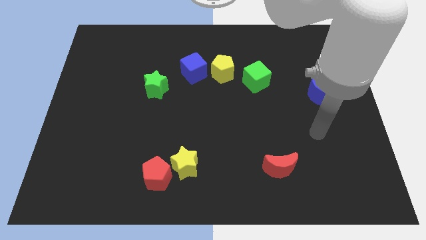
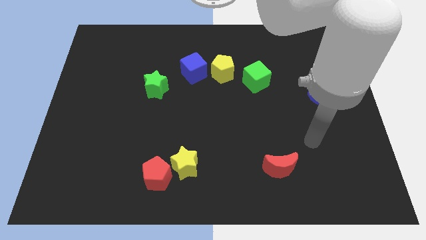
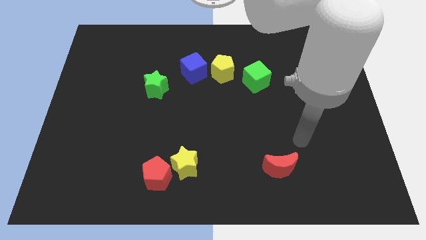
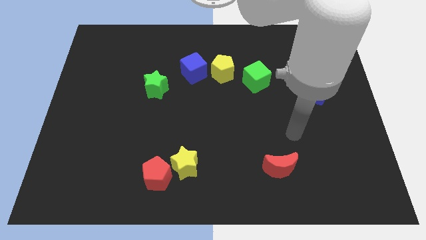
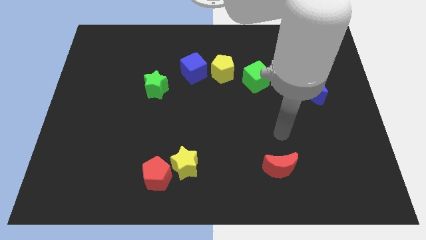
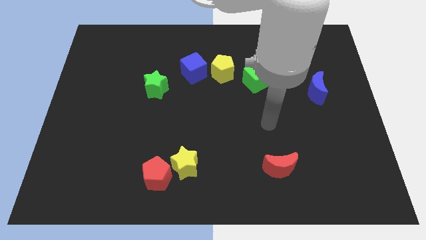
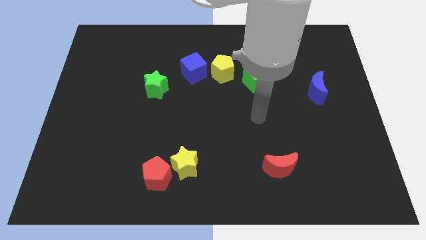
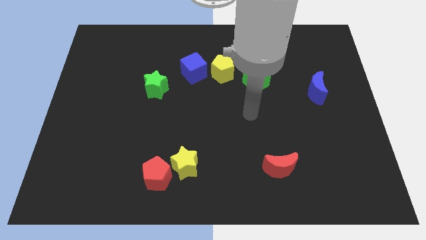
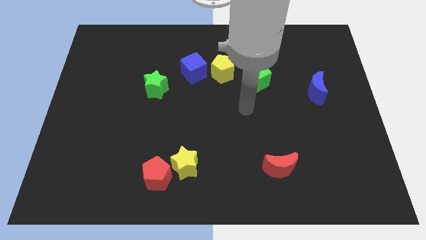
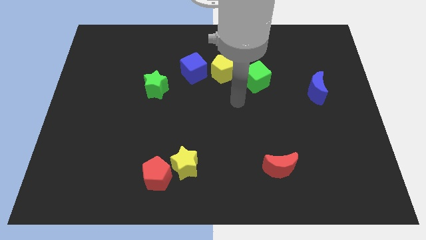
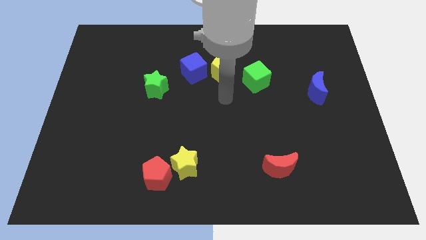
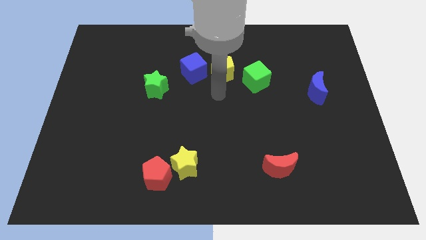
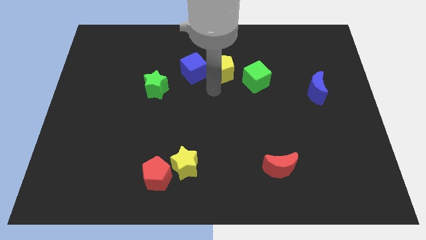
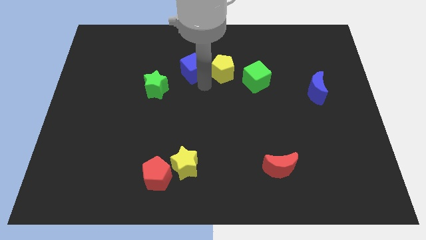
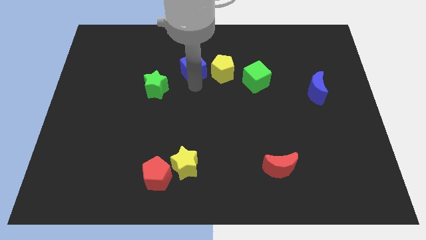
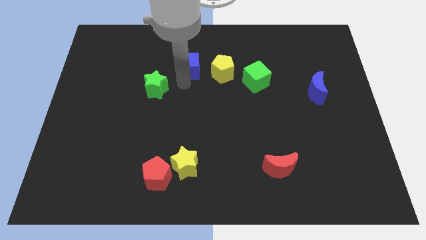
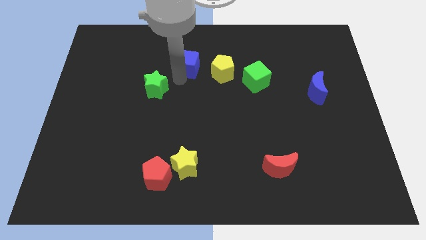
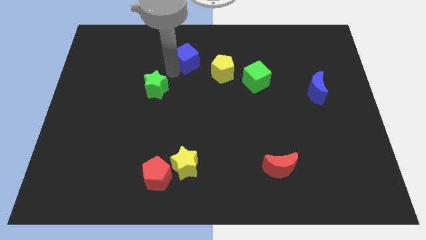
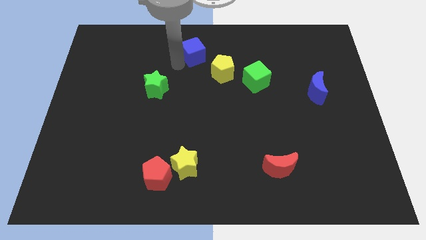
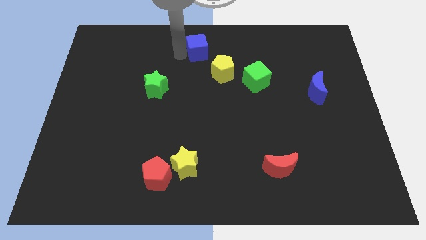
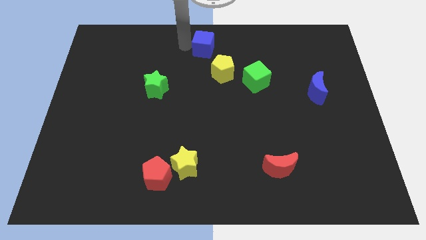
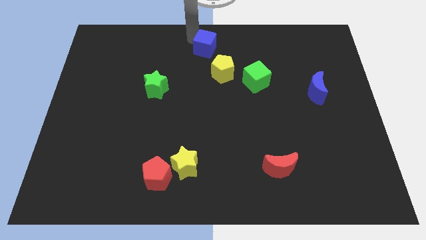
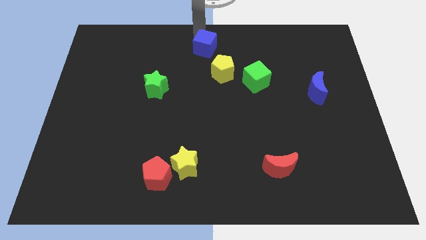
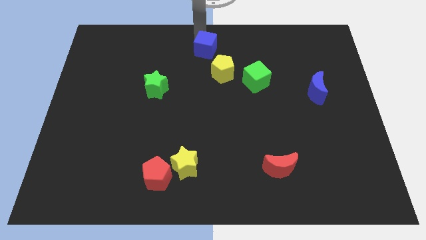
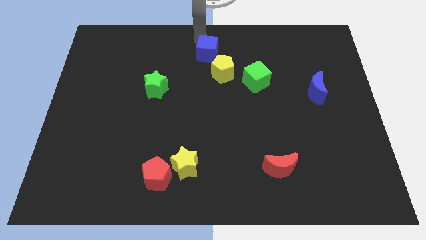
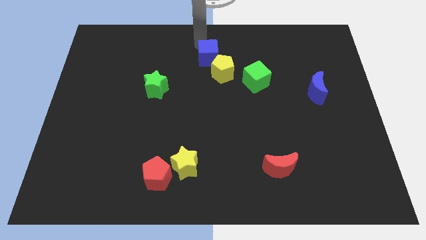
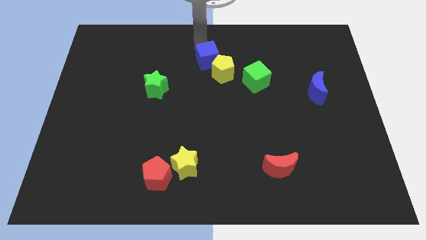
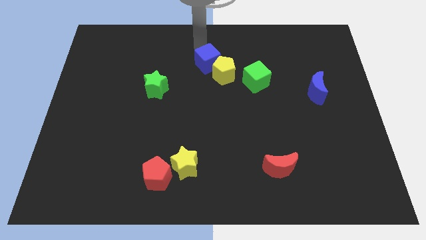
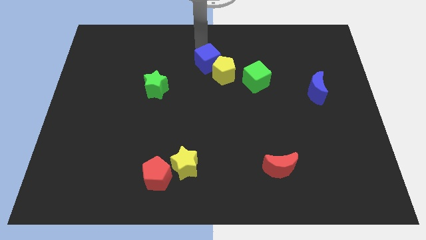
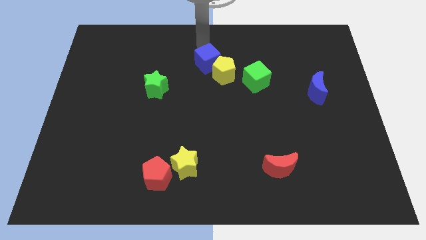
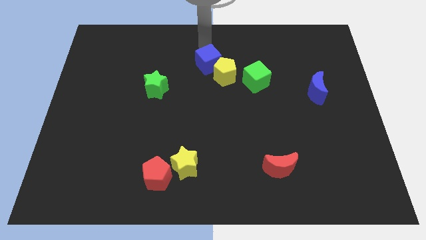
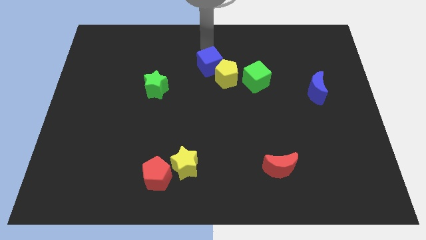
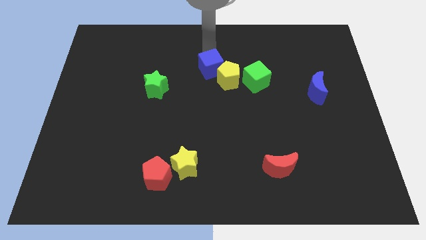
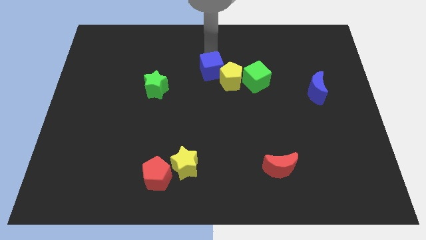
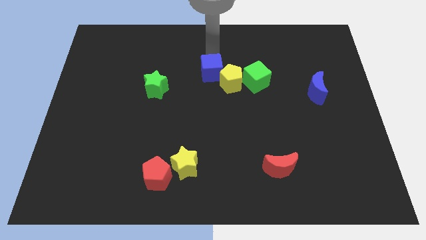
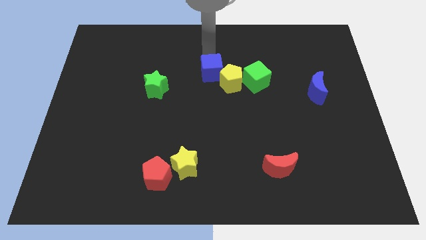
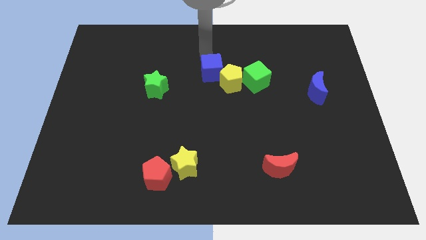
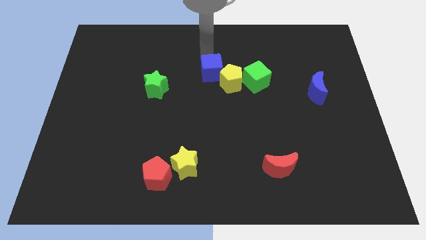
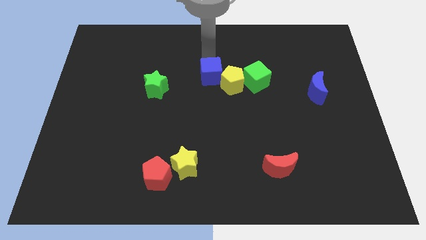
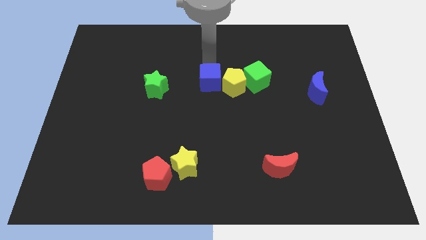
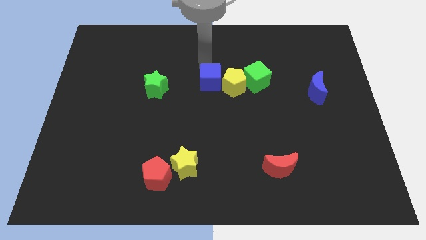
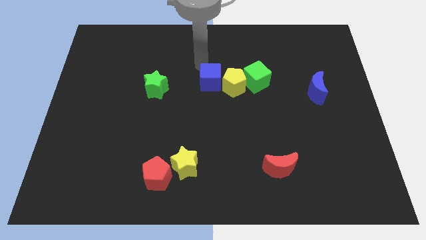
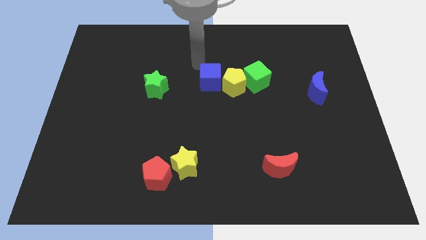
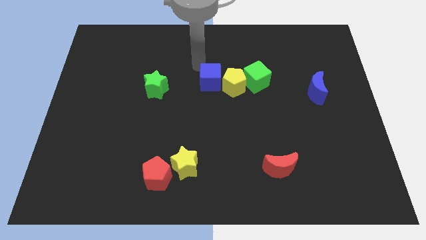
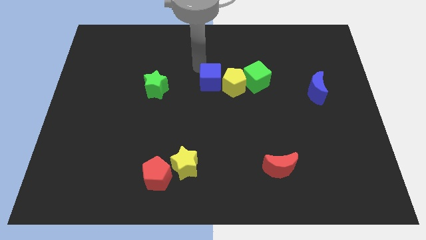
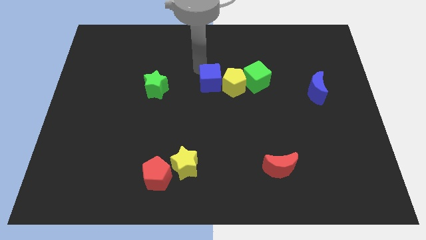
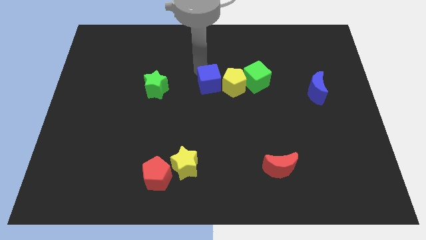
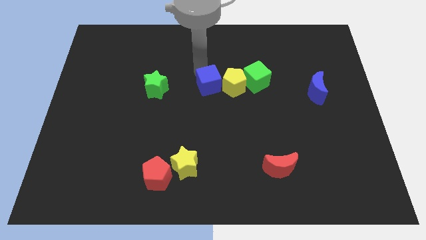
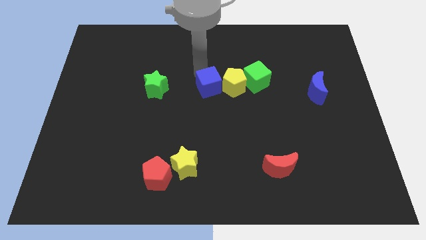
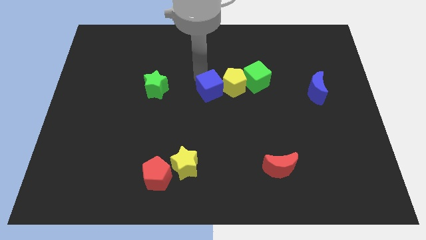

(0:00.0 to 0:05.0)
slightly push the blue cube downwards and to the right

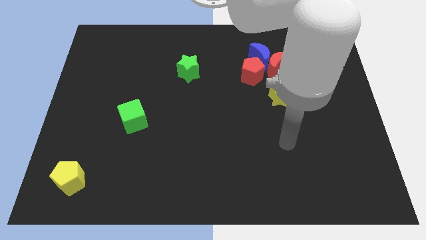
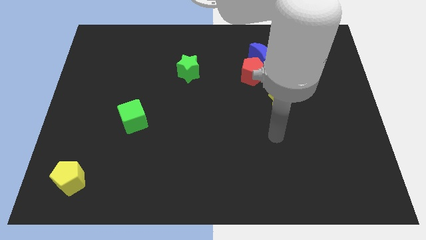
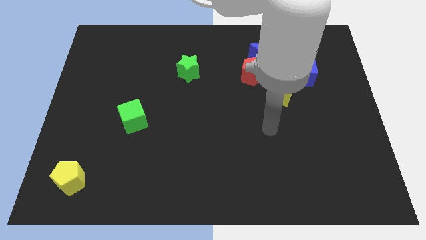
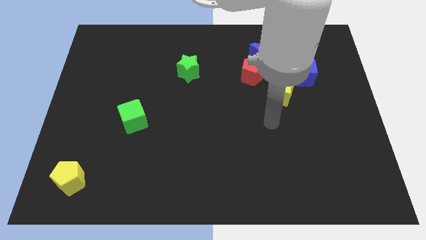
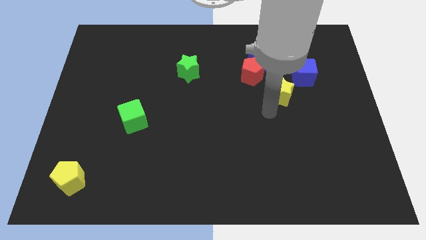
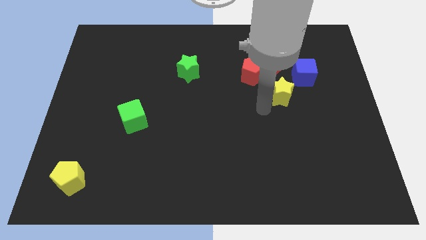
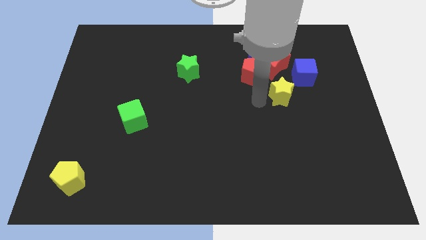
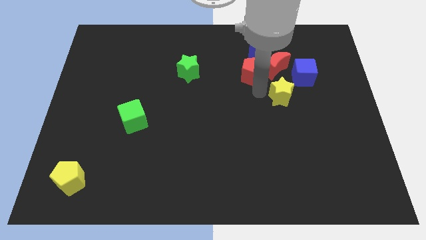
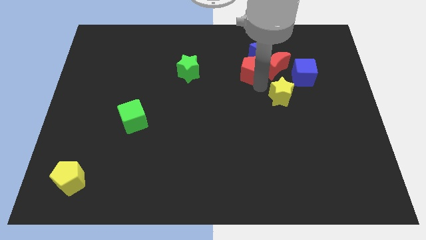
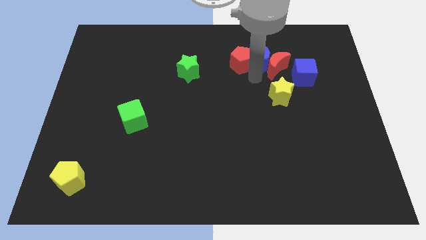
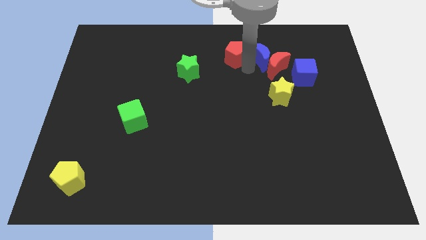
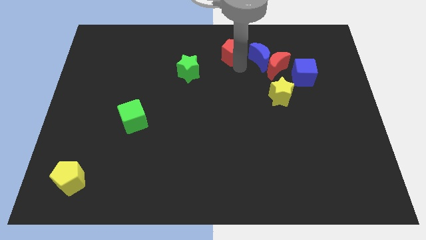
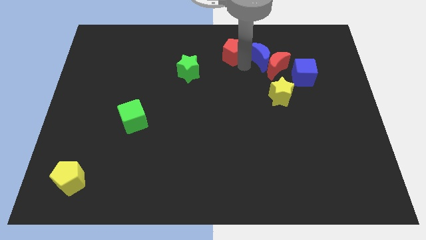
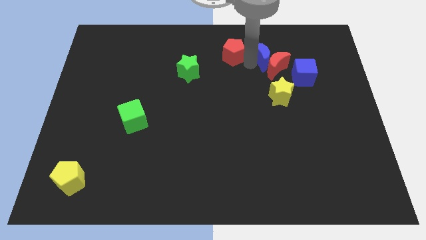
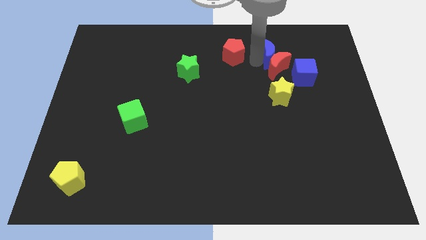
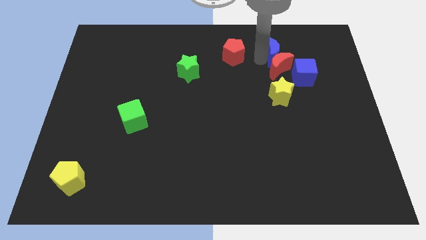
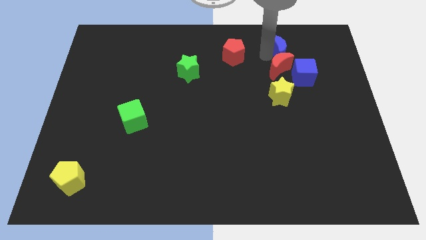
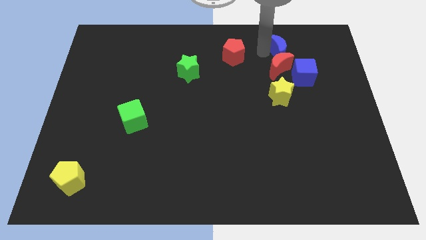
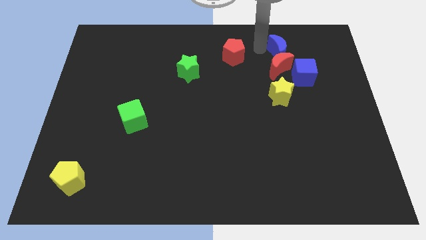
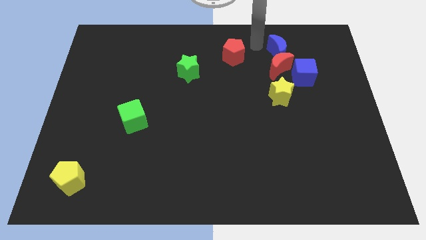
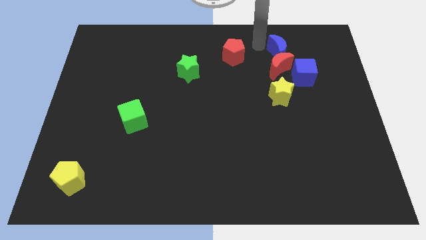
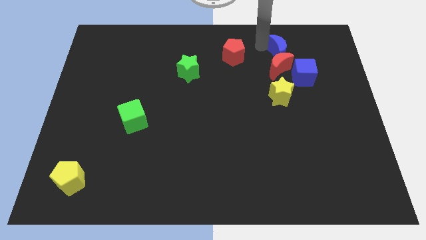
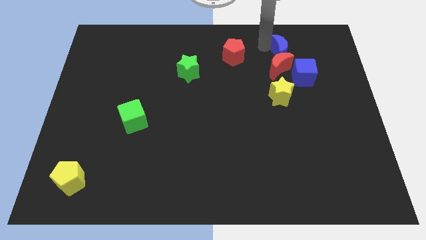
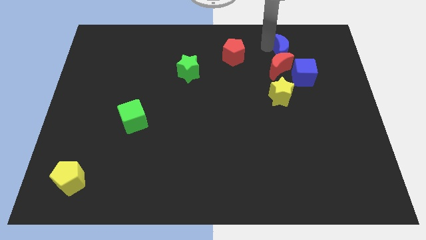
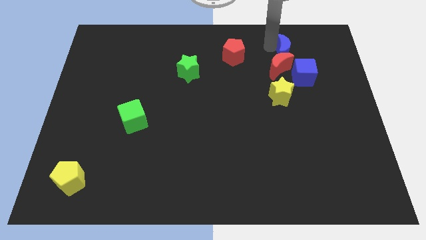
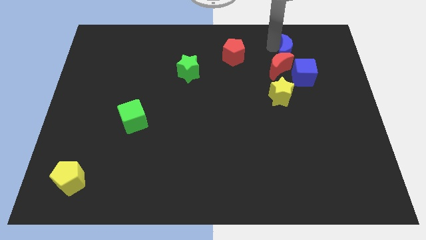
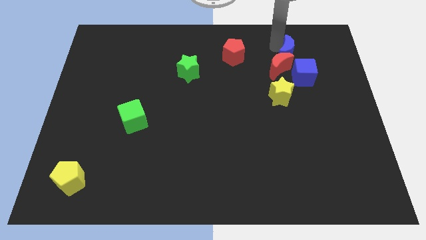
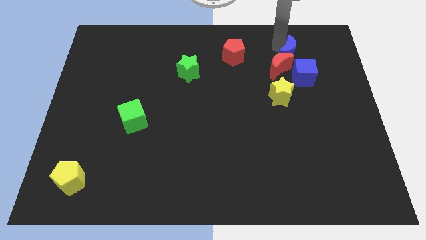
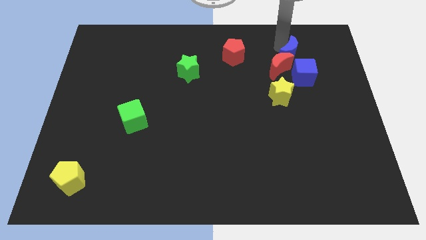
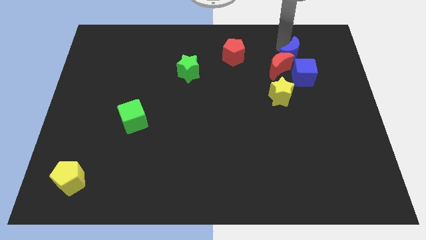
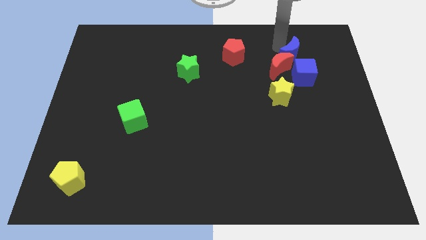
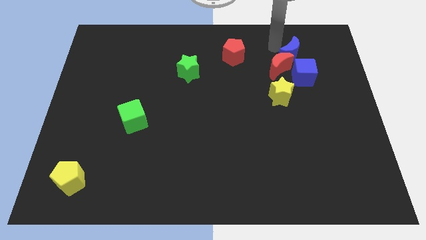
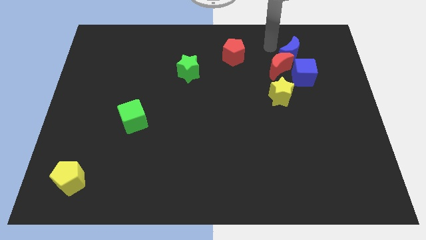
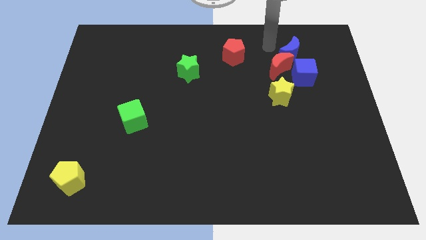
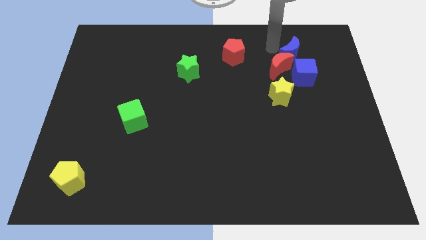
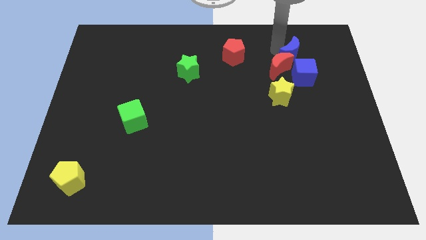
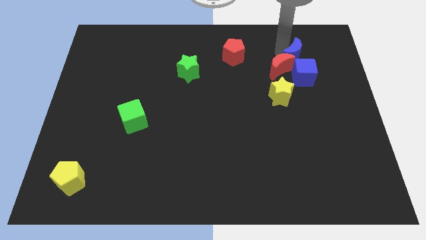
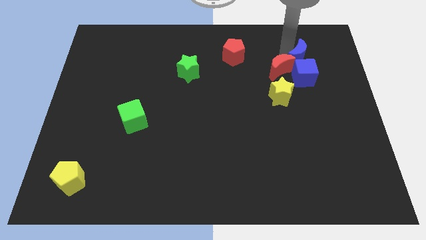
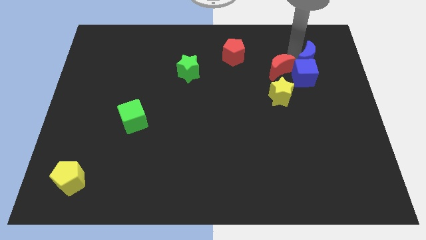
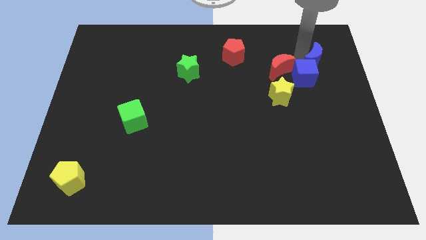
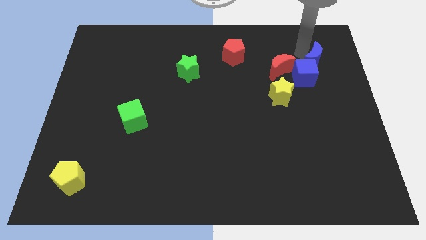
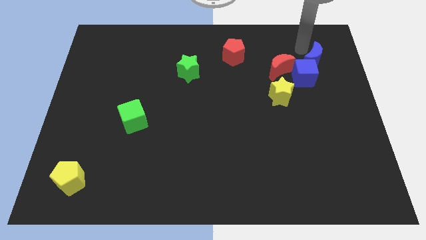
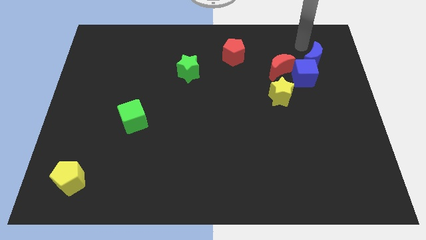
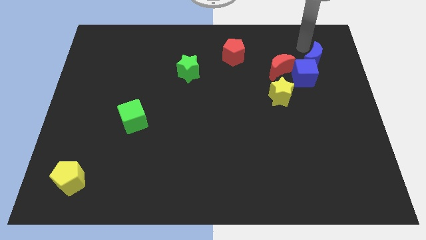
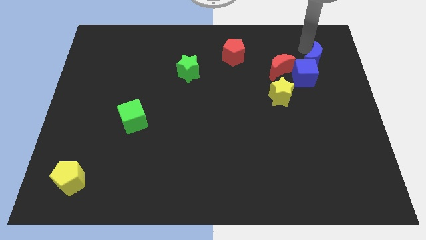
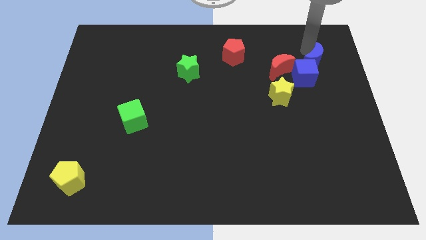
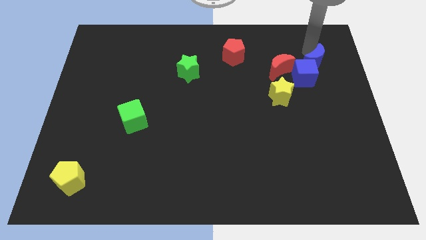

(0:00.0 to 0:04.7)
slide the blue moon a bit down and then to the right
